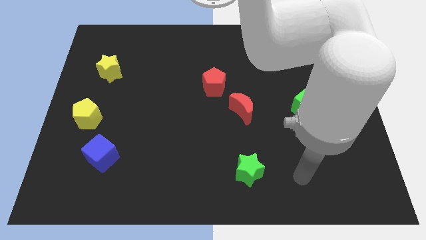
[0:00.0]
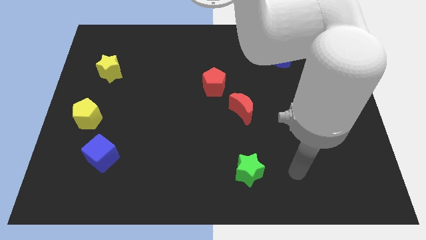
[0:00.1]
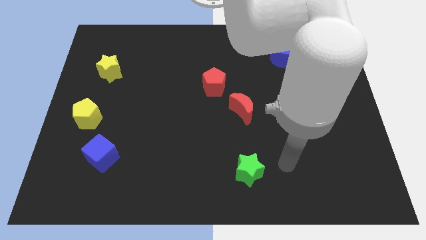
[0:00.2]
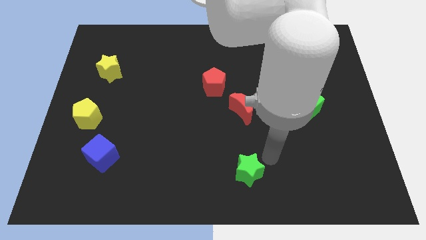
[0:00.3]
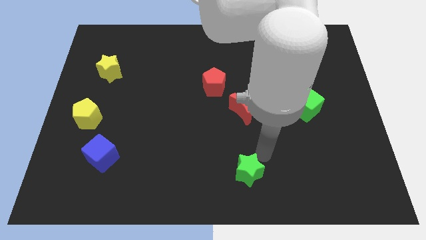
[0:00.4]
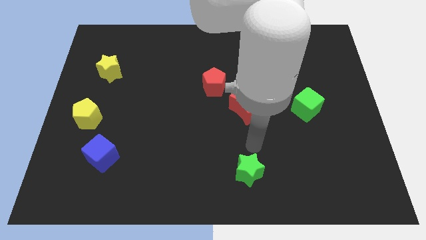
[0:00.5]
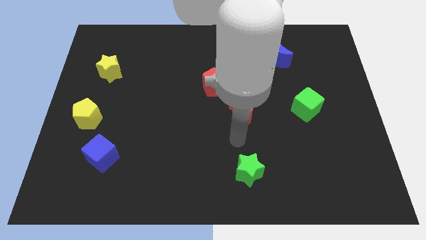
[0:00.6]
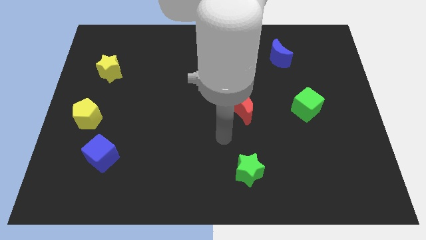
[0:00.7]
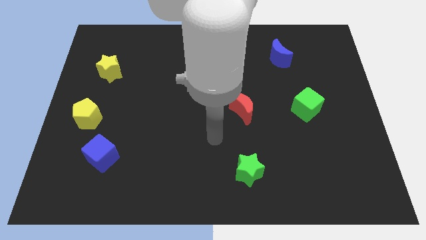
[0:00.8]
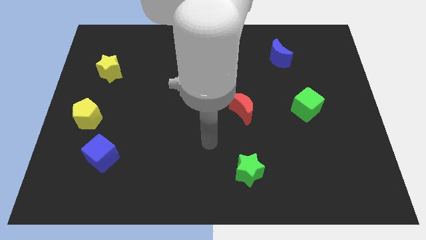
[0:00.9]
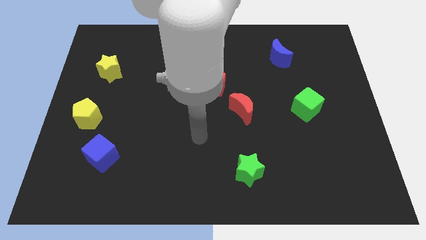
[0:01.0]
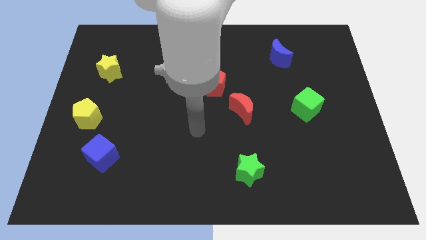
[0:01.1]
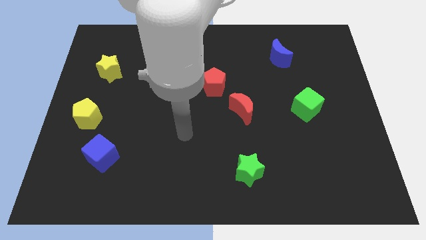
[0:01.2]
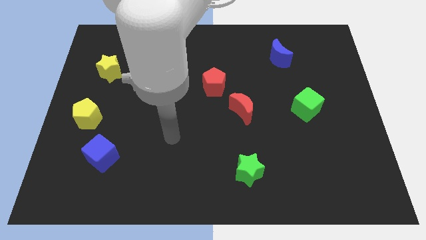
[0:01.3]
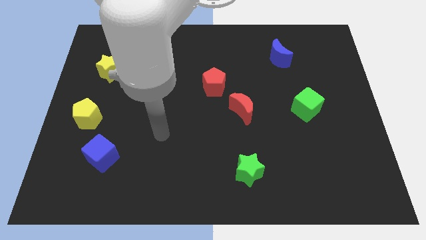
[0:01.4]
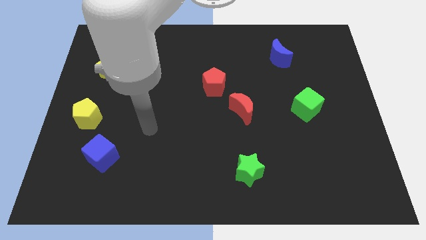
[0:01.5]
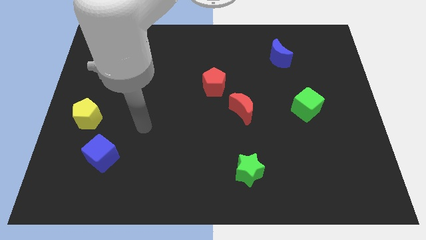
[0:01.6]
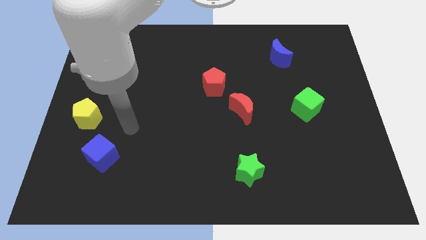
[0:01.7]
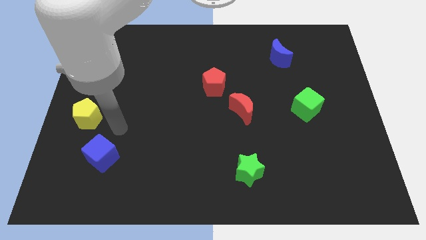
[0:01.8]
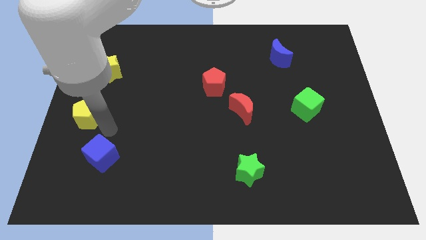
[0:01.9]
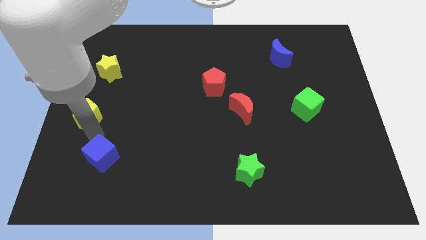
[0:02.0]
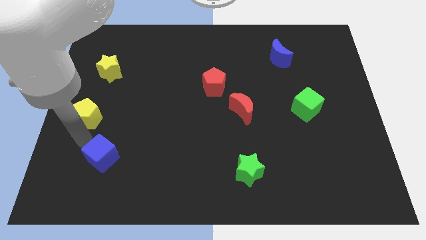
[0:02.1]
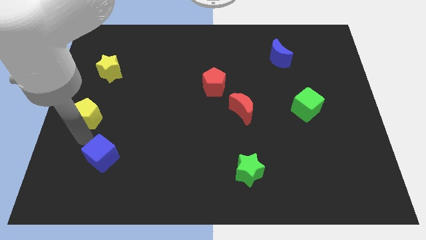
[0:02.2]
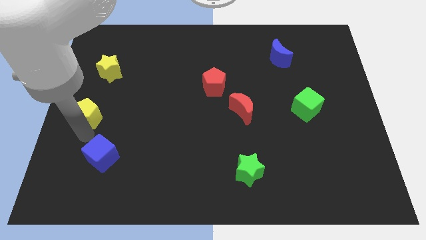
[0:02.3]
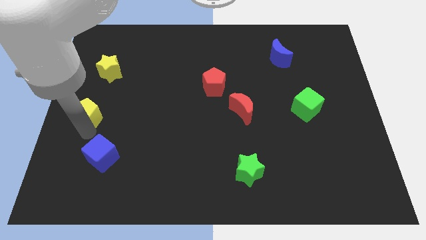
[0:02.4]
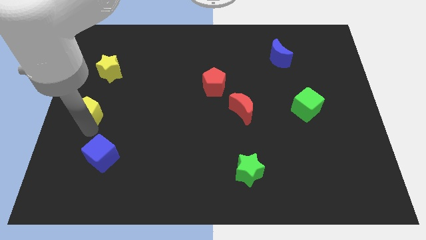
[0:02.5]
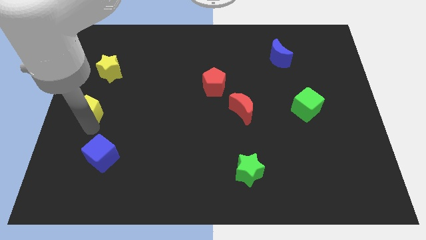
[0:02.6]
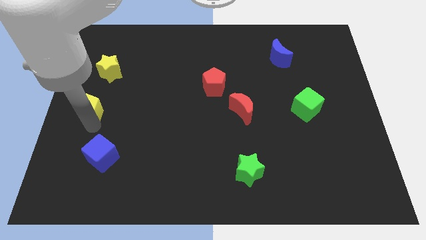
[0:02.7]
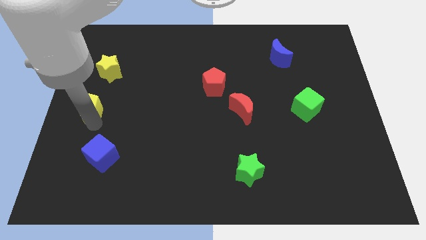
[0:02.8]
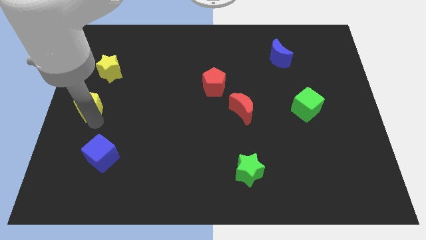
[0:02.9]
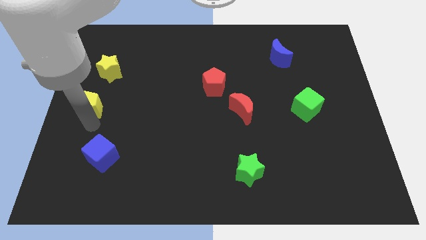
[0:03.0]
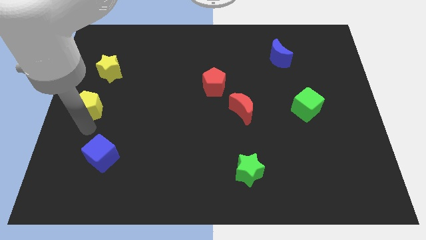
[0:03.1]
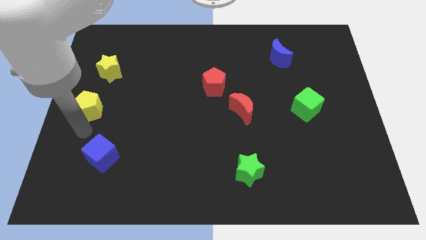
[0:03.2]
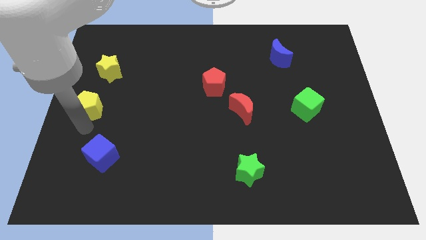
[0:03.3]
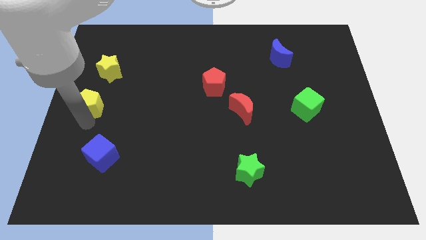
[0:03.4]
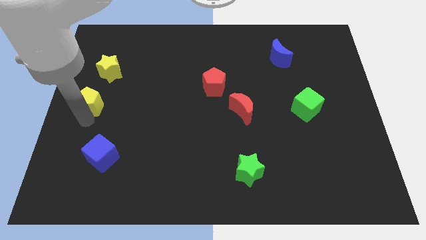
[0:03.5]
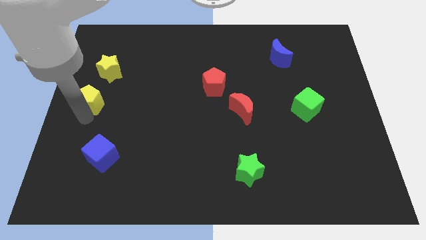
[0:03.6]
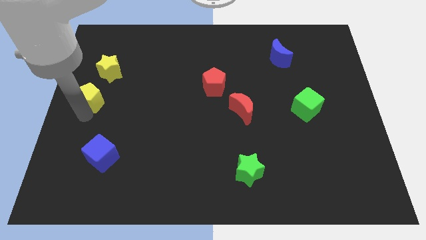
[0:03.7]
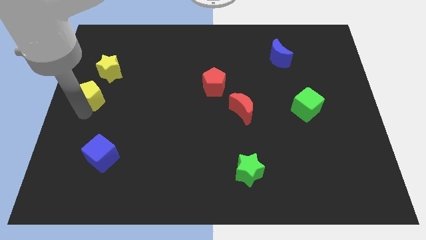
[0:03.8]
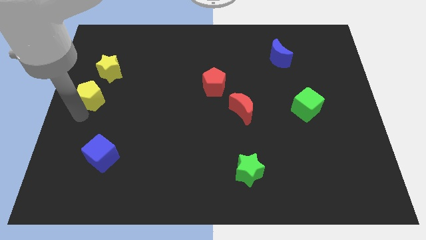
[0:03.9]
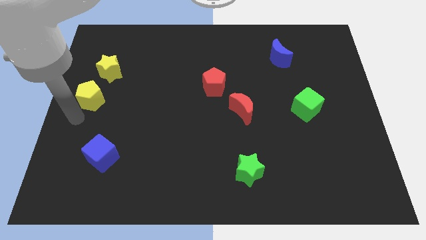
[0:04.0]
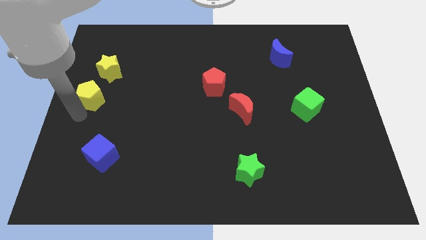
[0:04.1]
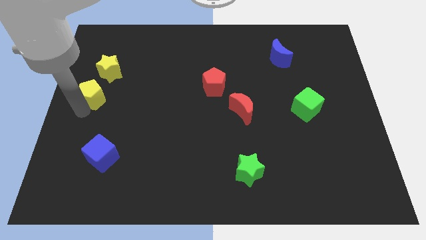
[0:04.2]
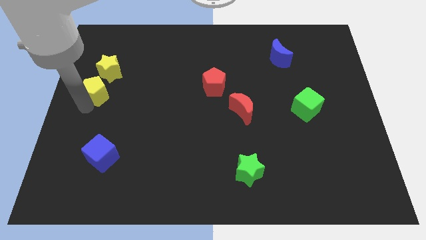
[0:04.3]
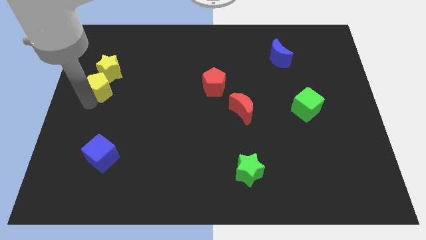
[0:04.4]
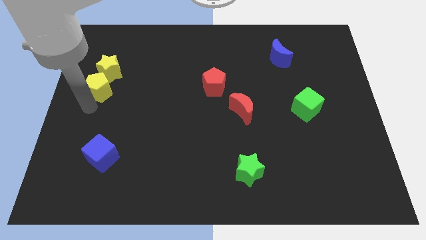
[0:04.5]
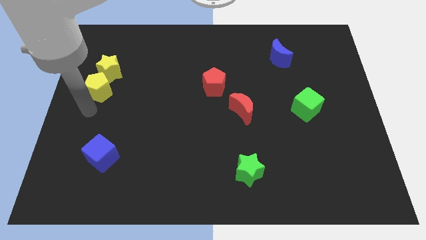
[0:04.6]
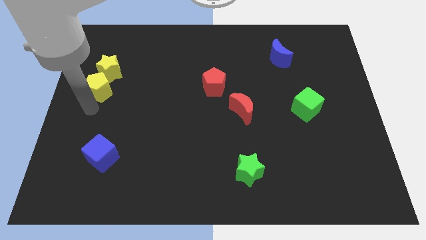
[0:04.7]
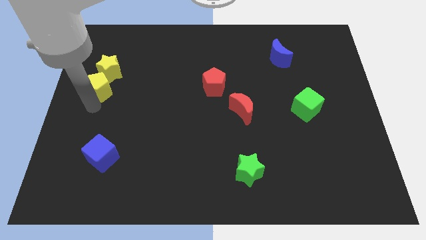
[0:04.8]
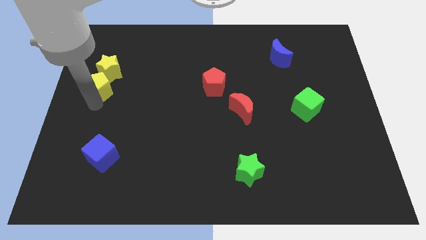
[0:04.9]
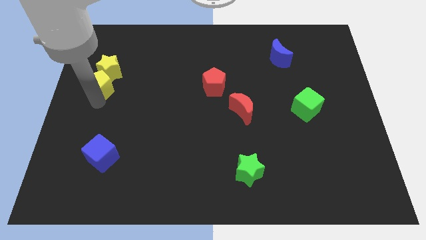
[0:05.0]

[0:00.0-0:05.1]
push the yellow pentagon towards the yellow star

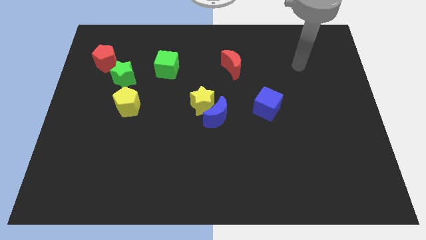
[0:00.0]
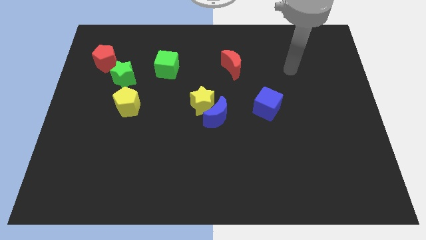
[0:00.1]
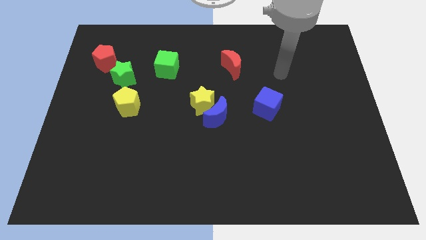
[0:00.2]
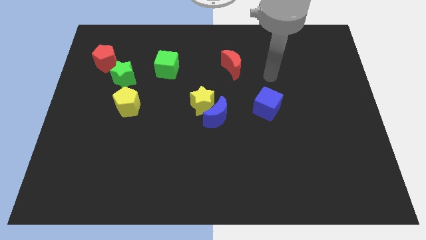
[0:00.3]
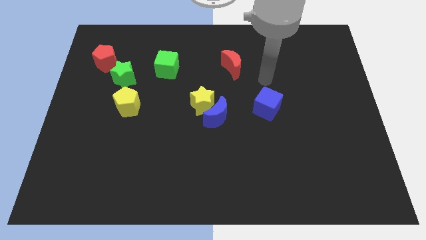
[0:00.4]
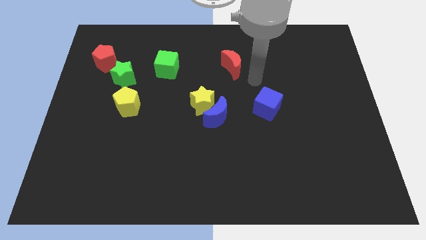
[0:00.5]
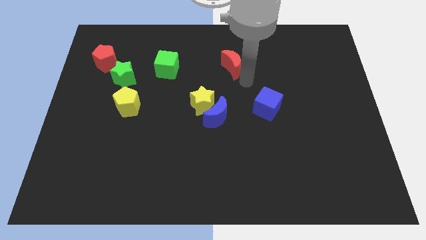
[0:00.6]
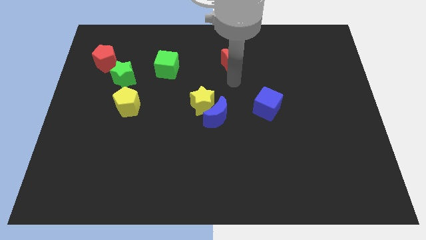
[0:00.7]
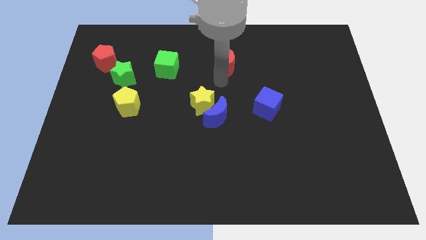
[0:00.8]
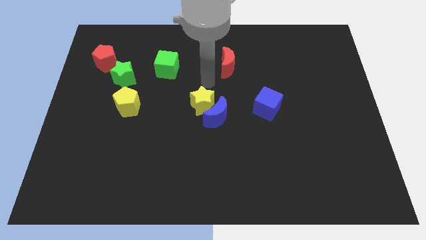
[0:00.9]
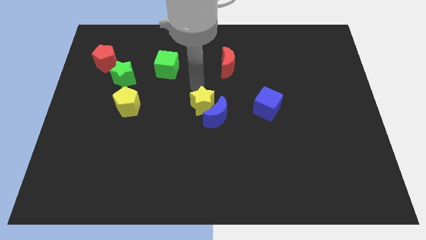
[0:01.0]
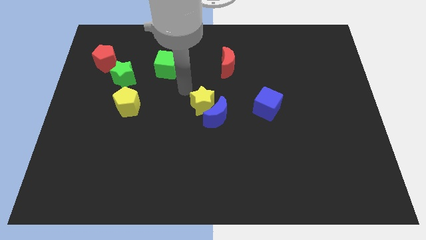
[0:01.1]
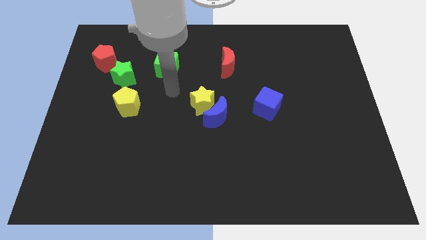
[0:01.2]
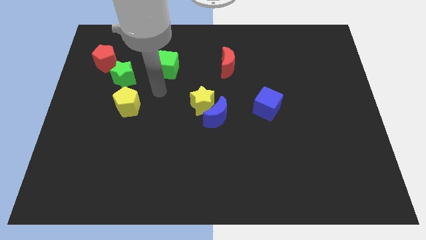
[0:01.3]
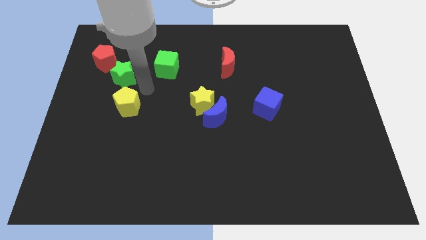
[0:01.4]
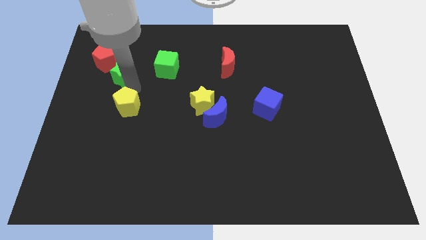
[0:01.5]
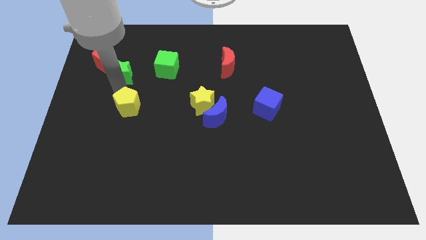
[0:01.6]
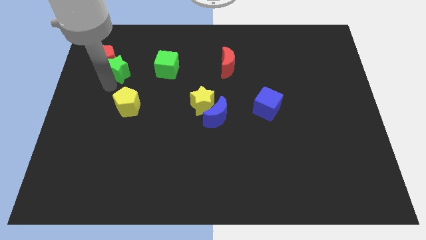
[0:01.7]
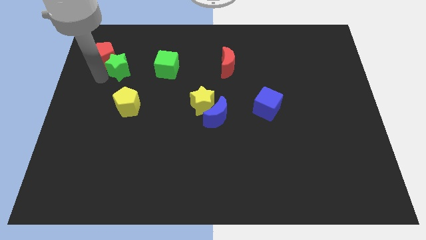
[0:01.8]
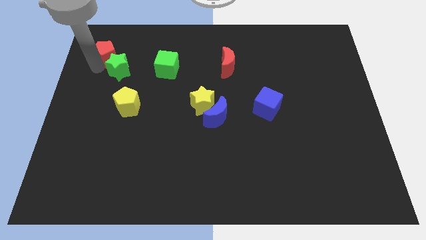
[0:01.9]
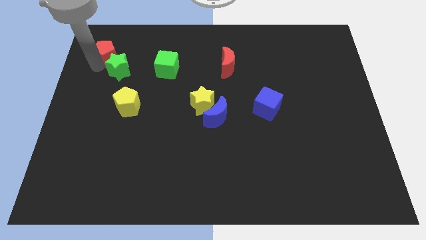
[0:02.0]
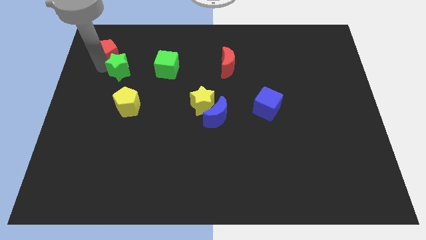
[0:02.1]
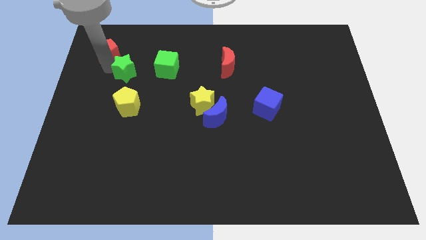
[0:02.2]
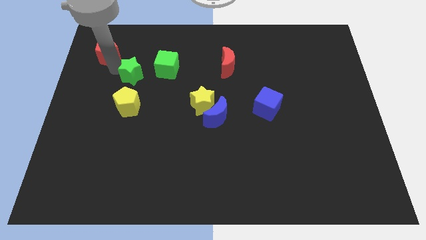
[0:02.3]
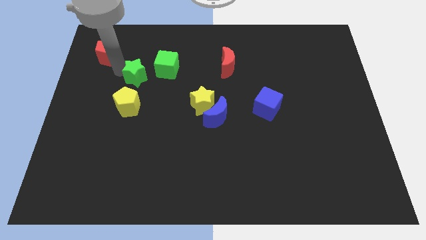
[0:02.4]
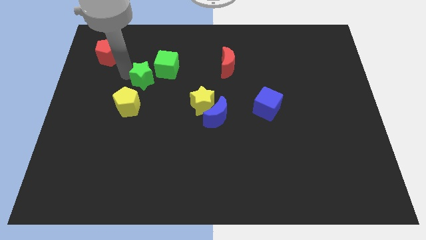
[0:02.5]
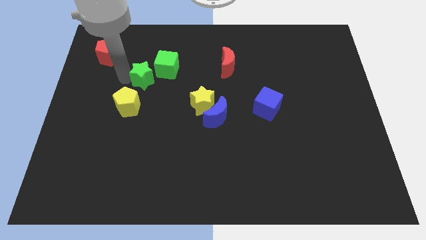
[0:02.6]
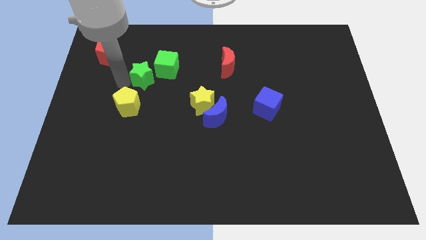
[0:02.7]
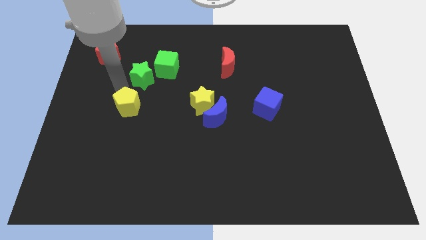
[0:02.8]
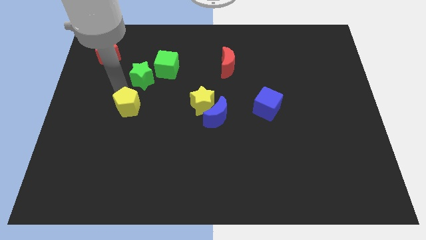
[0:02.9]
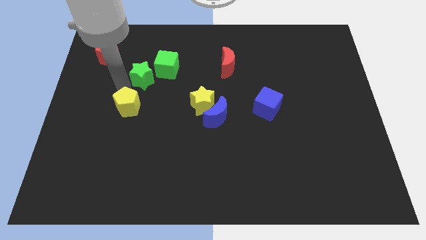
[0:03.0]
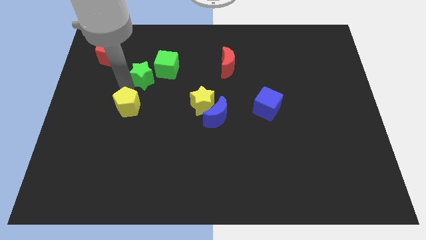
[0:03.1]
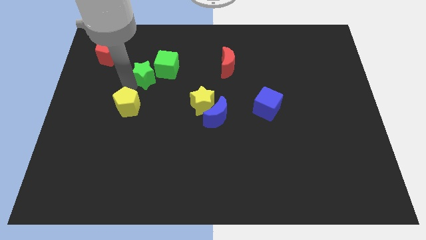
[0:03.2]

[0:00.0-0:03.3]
push the green star close to the green cube
